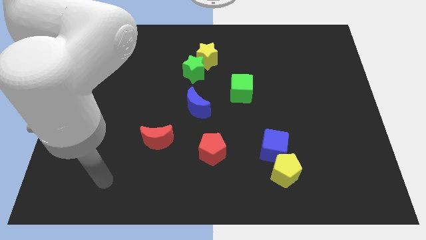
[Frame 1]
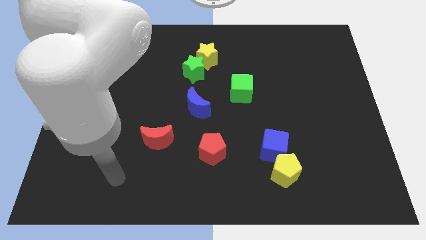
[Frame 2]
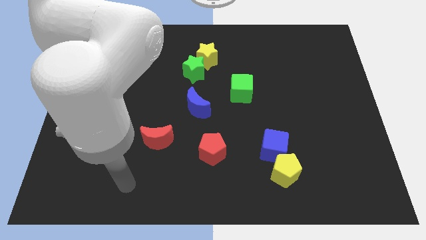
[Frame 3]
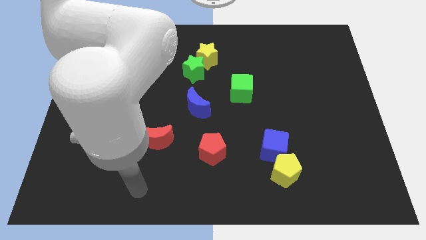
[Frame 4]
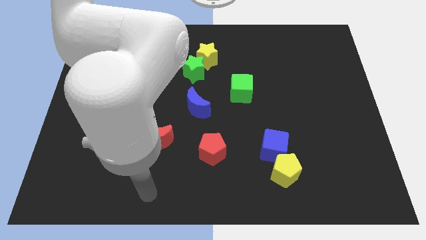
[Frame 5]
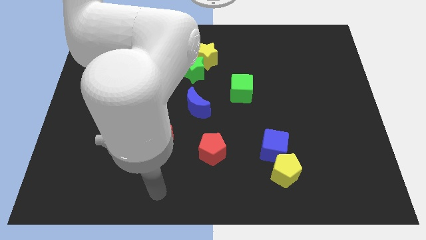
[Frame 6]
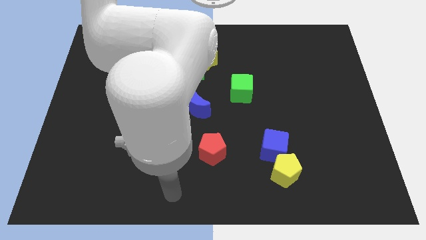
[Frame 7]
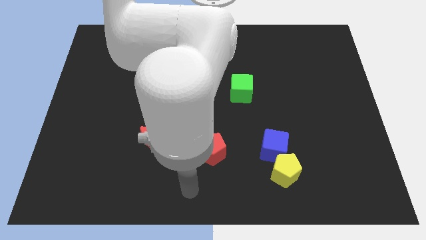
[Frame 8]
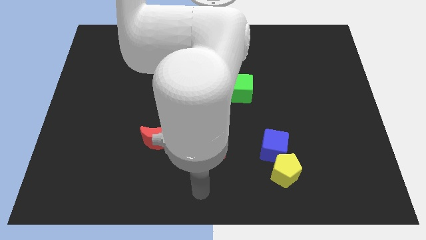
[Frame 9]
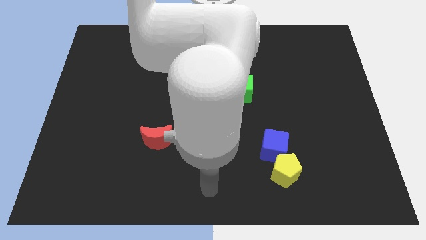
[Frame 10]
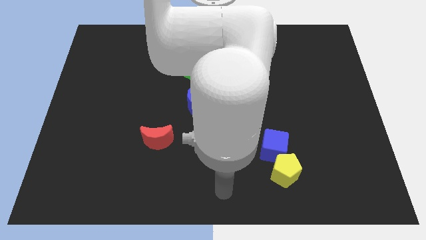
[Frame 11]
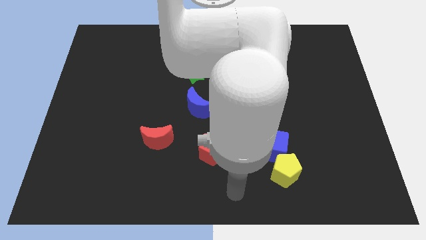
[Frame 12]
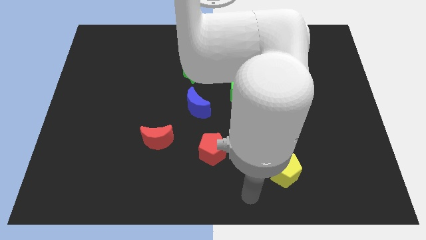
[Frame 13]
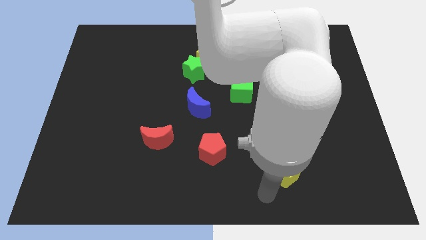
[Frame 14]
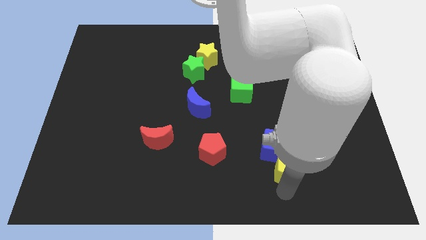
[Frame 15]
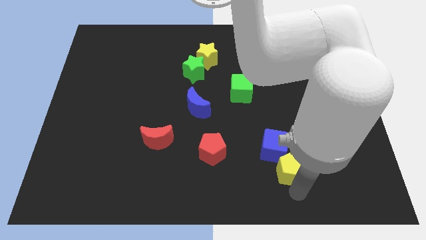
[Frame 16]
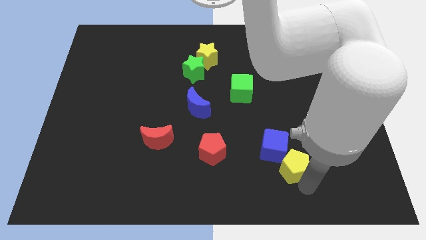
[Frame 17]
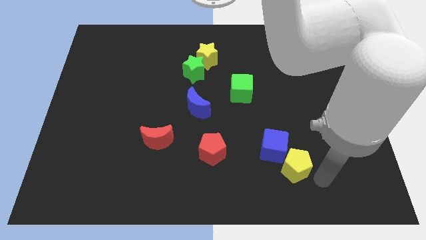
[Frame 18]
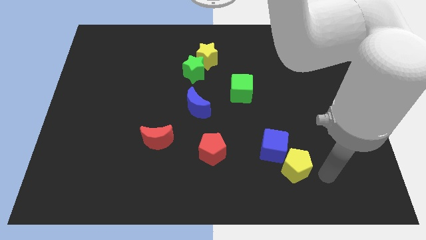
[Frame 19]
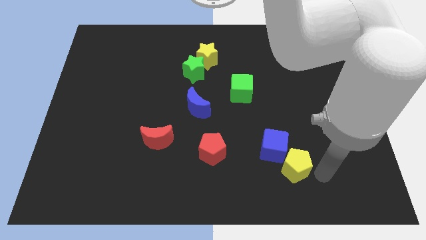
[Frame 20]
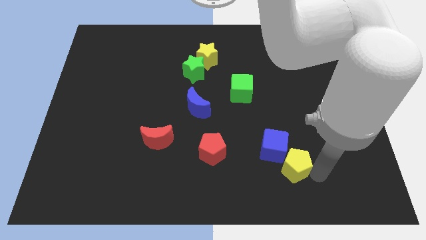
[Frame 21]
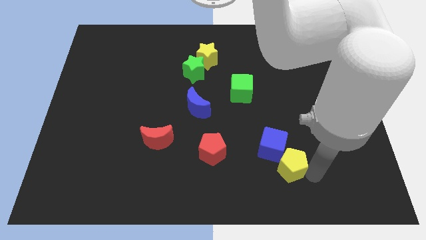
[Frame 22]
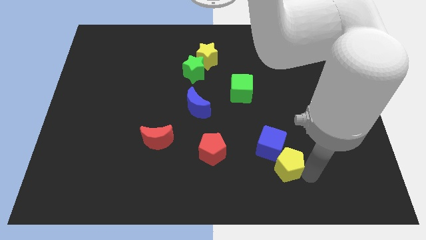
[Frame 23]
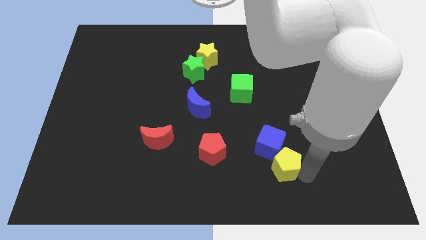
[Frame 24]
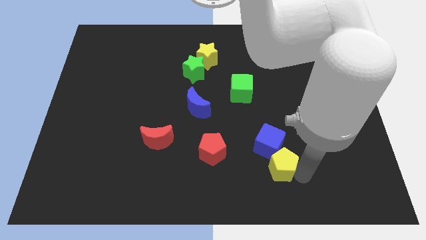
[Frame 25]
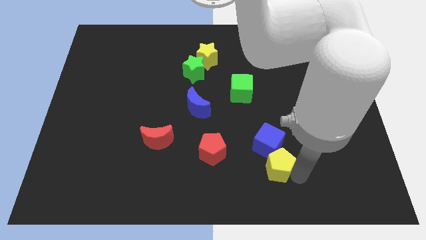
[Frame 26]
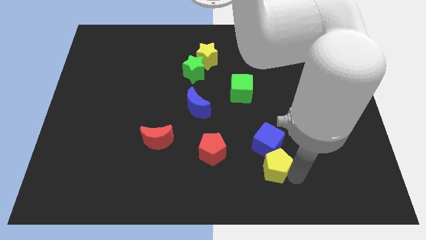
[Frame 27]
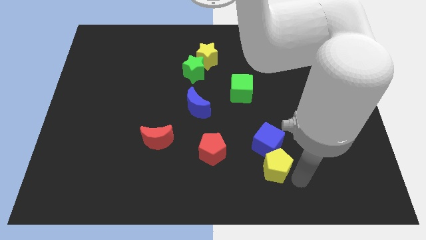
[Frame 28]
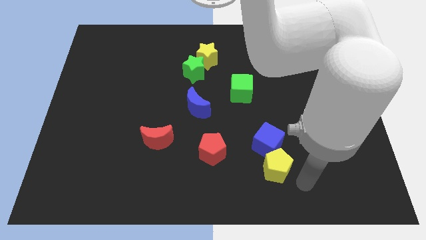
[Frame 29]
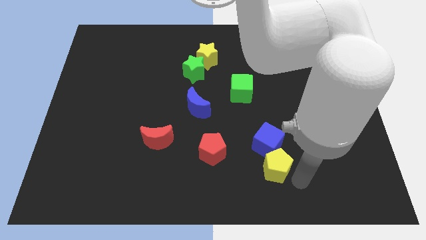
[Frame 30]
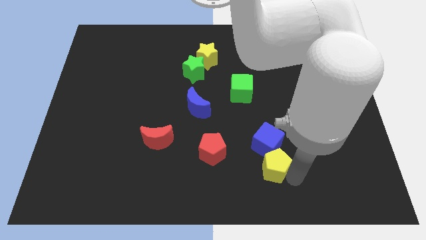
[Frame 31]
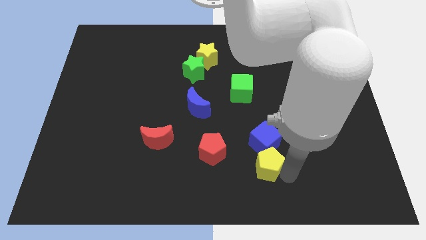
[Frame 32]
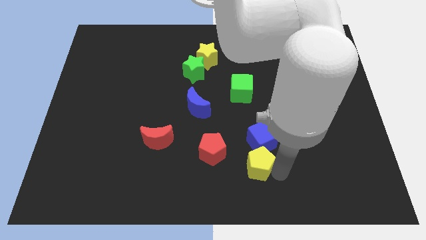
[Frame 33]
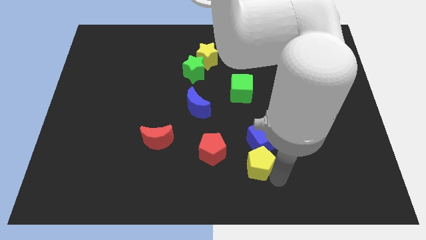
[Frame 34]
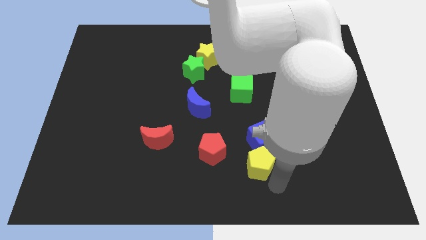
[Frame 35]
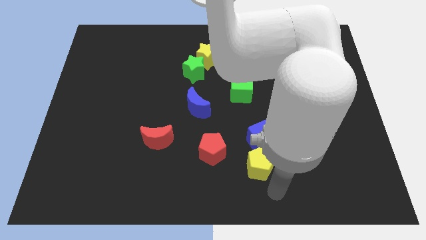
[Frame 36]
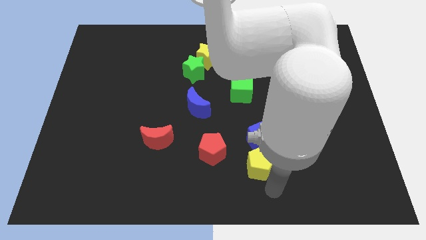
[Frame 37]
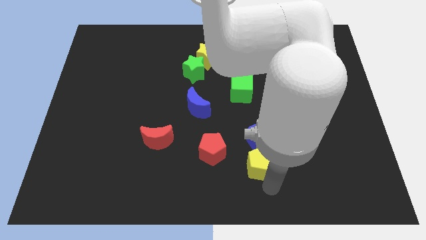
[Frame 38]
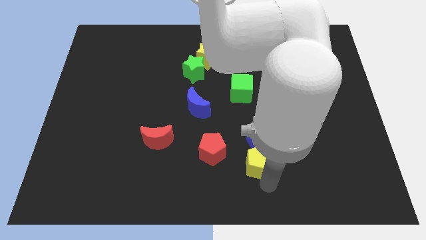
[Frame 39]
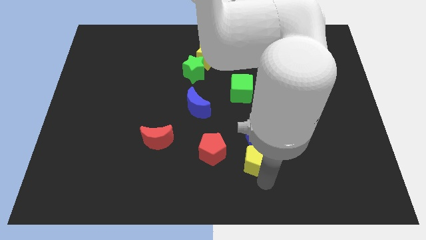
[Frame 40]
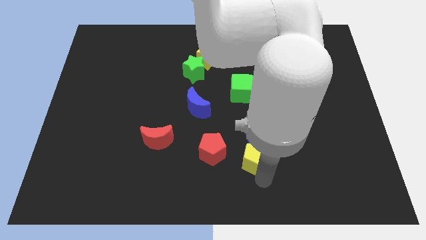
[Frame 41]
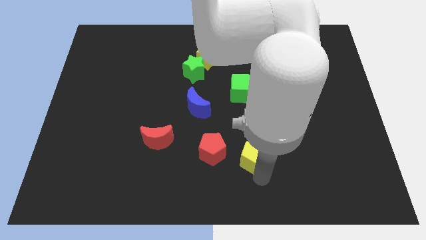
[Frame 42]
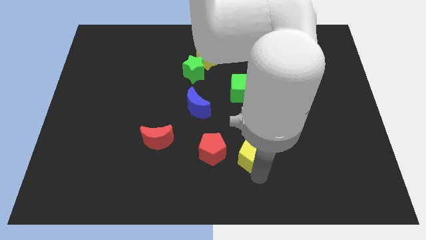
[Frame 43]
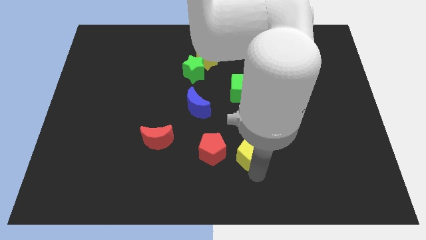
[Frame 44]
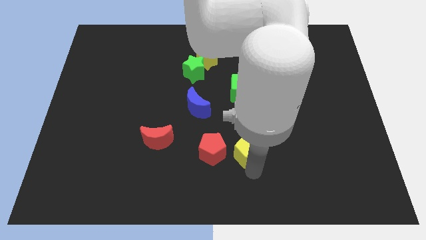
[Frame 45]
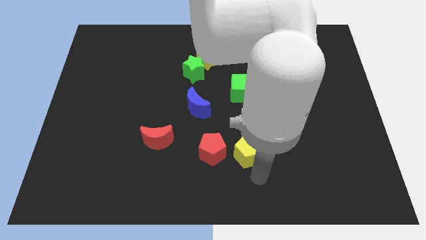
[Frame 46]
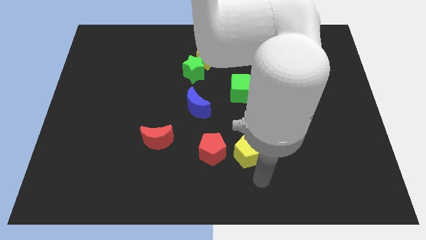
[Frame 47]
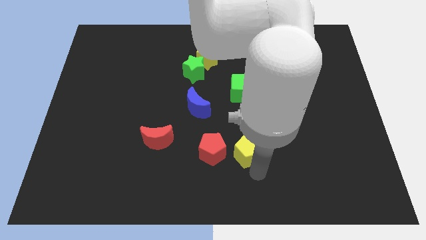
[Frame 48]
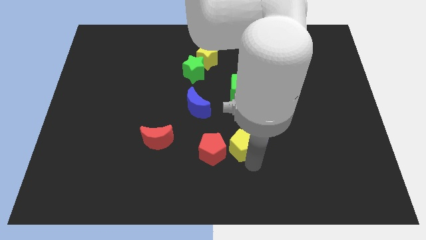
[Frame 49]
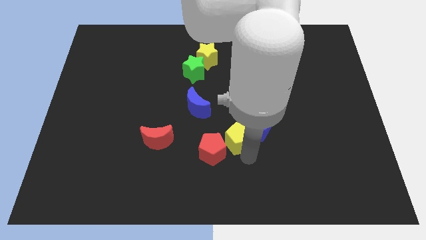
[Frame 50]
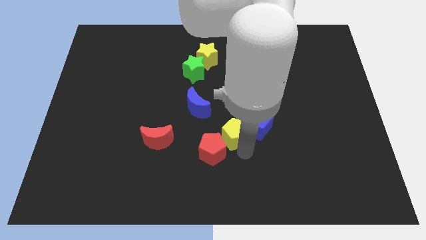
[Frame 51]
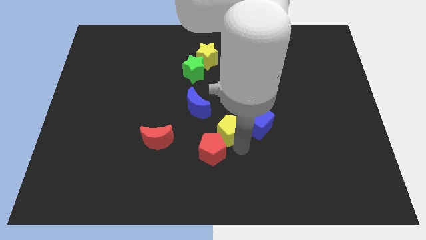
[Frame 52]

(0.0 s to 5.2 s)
push the yellow pentagon to the top side of the red pentagon

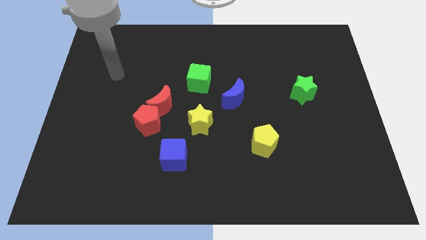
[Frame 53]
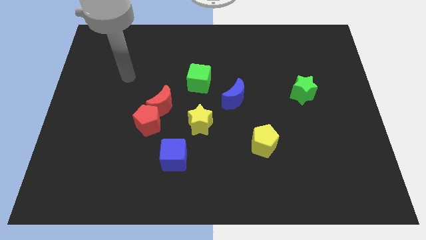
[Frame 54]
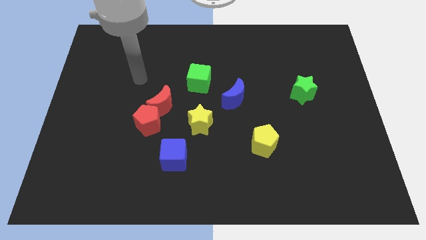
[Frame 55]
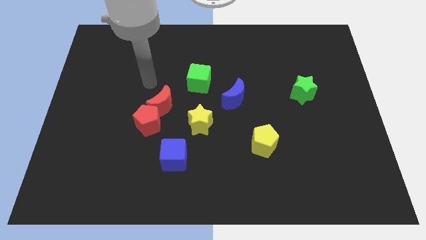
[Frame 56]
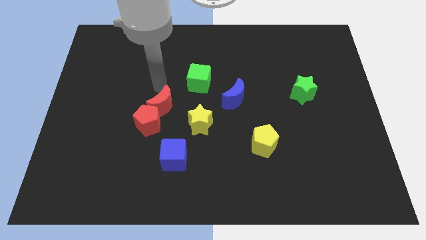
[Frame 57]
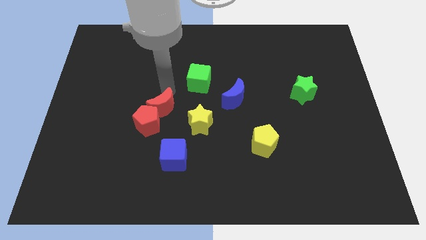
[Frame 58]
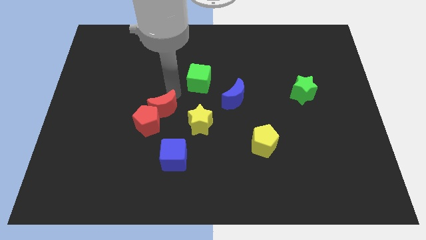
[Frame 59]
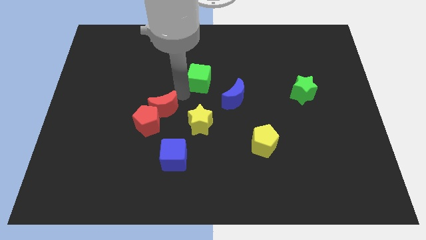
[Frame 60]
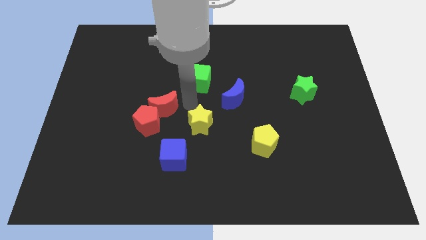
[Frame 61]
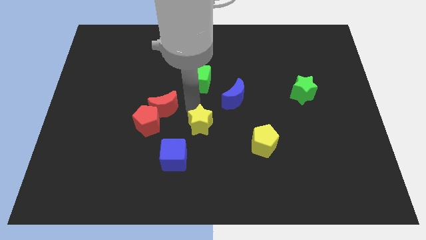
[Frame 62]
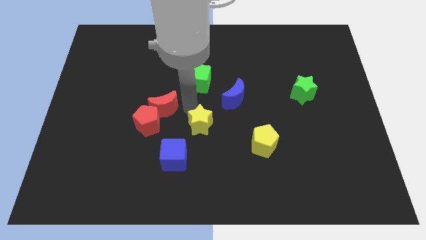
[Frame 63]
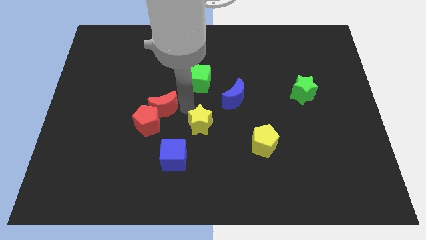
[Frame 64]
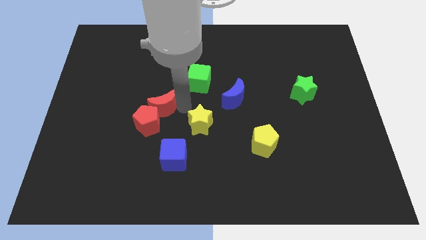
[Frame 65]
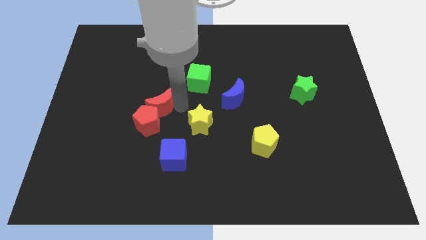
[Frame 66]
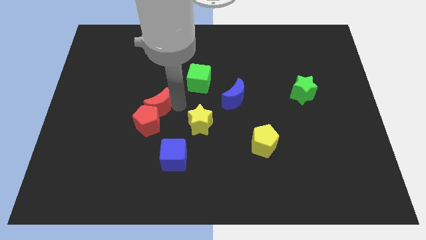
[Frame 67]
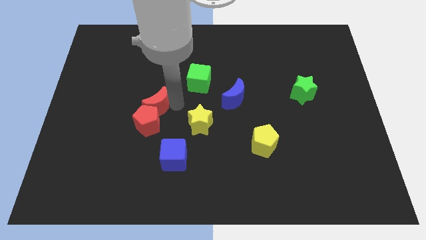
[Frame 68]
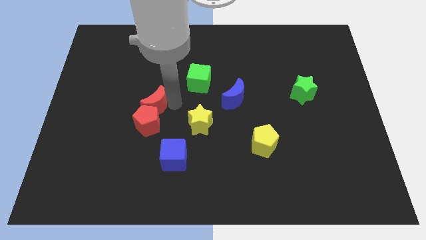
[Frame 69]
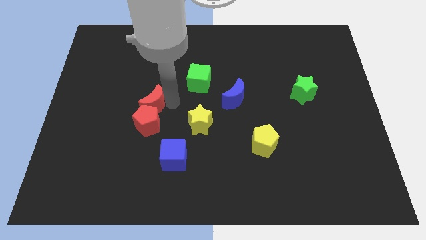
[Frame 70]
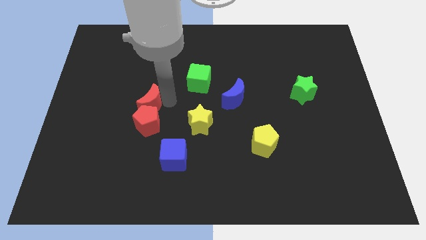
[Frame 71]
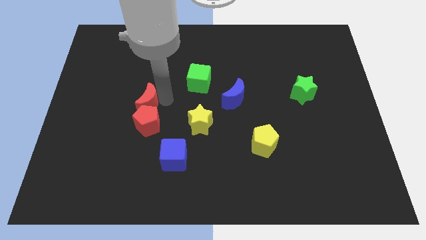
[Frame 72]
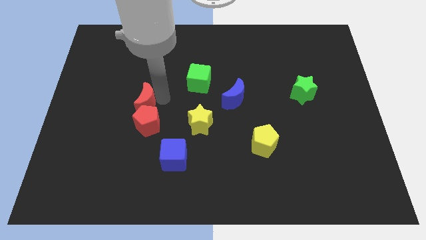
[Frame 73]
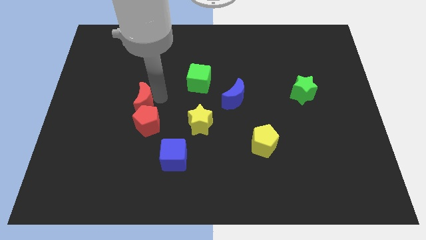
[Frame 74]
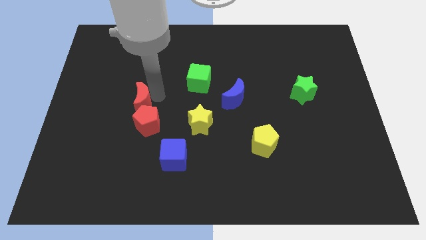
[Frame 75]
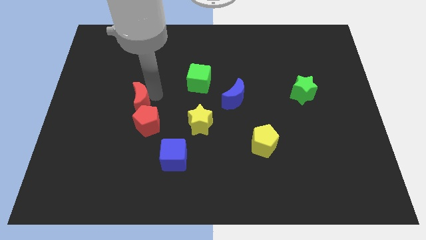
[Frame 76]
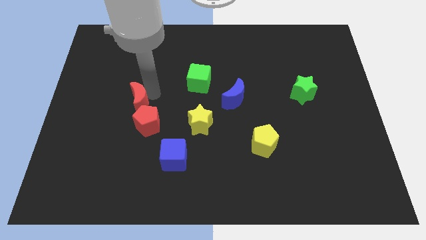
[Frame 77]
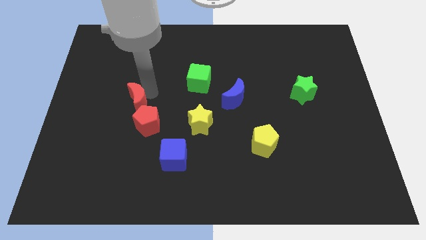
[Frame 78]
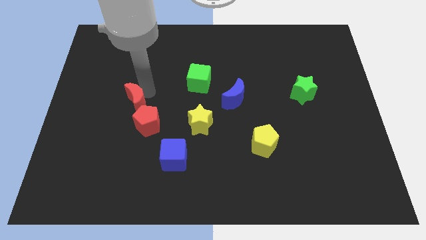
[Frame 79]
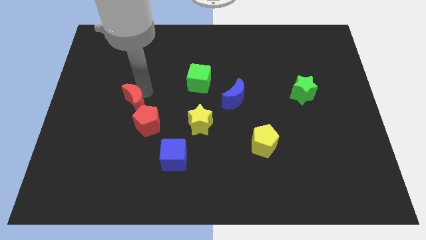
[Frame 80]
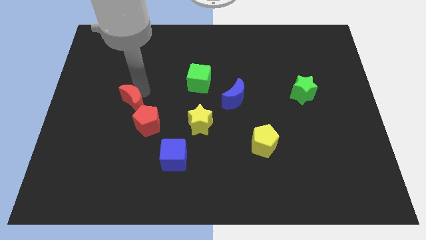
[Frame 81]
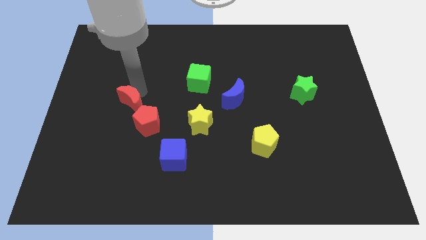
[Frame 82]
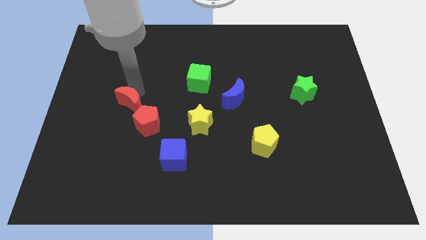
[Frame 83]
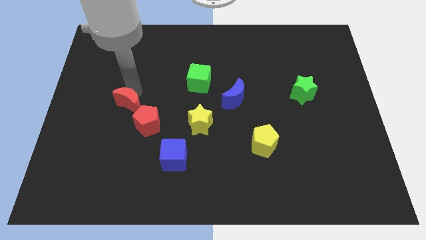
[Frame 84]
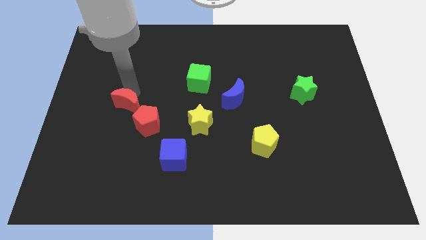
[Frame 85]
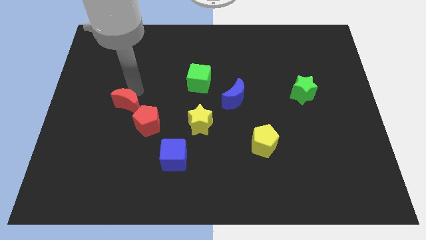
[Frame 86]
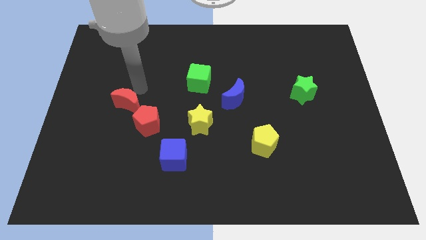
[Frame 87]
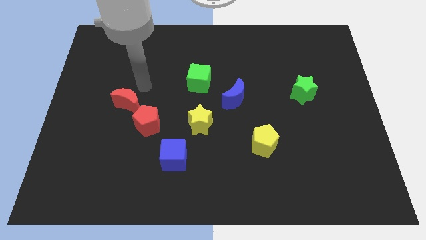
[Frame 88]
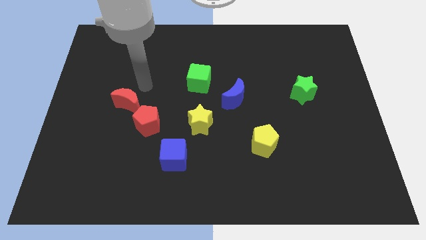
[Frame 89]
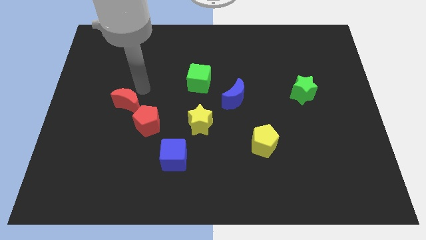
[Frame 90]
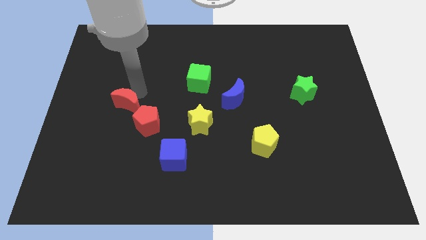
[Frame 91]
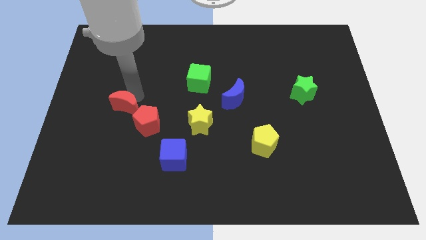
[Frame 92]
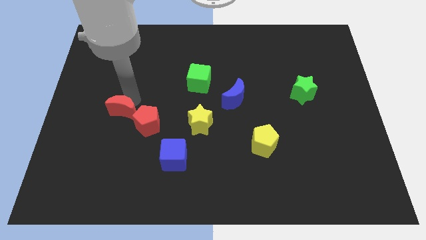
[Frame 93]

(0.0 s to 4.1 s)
slide the red moon just left of the red pentagon
